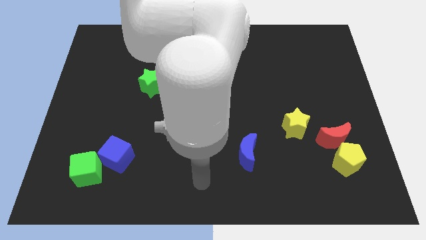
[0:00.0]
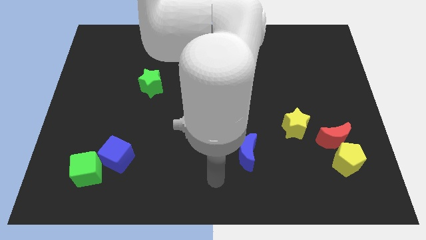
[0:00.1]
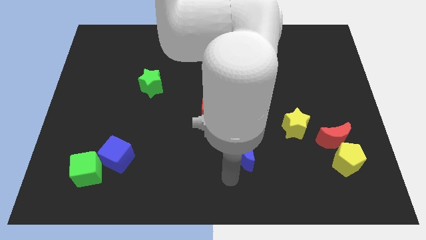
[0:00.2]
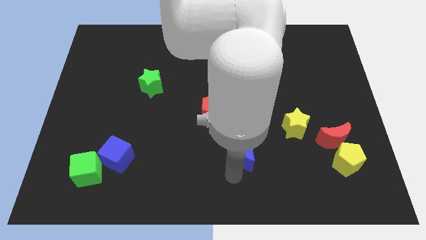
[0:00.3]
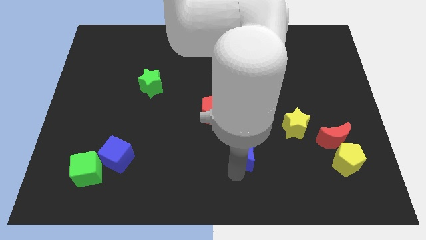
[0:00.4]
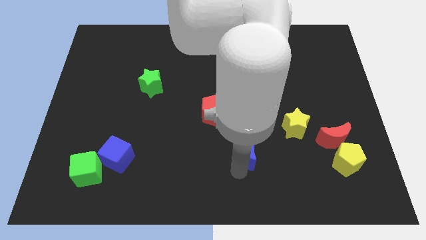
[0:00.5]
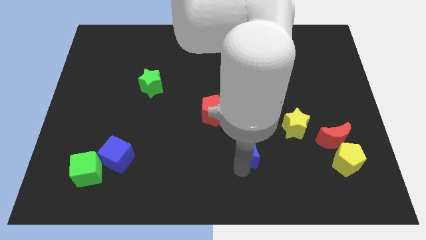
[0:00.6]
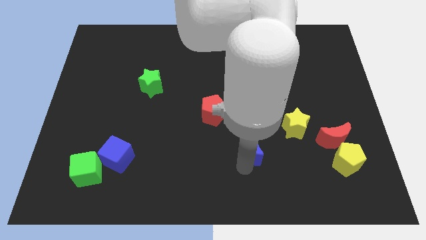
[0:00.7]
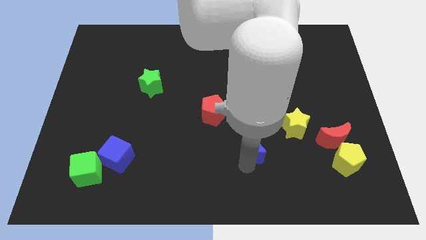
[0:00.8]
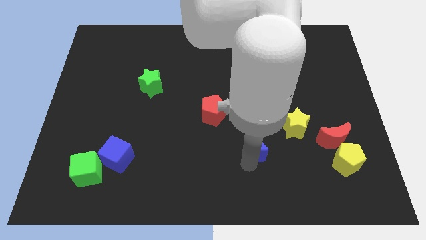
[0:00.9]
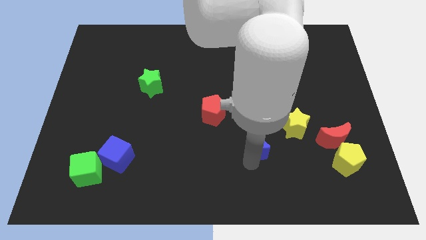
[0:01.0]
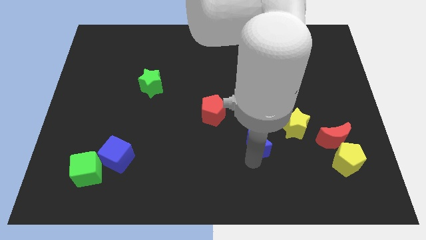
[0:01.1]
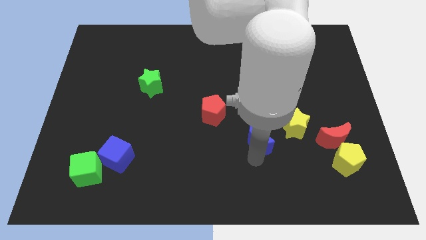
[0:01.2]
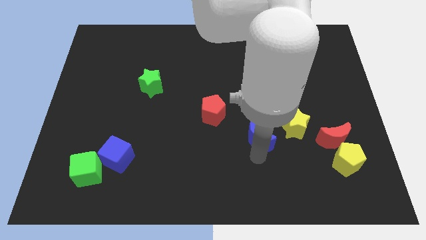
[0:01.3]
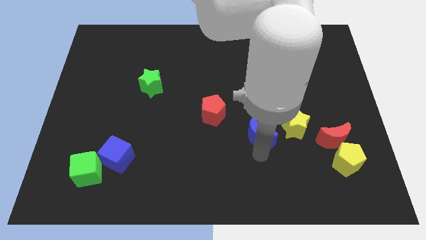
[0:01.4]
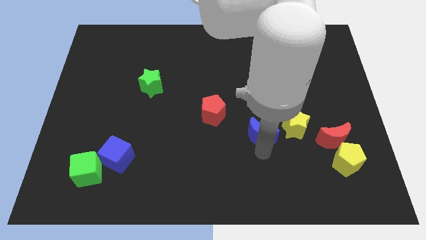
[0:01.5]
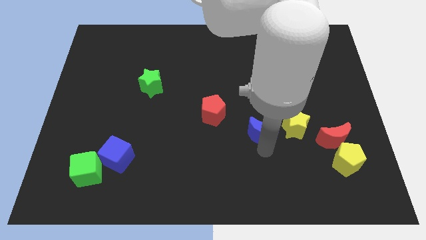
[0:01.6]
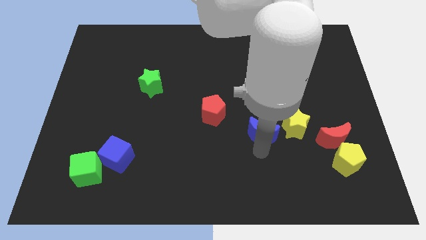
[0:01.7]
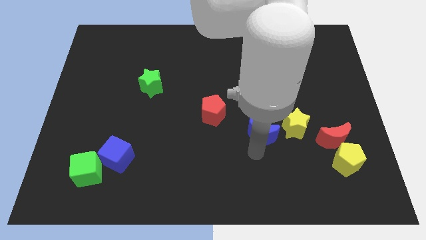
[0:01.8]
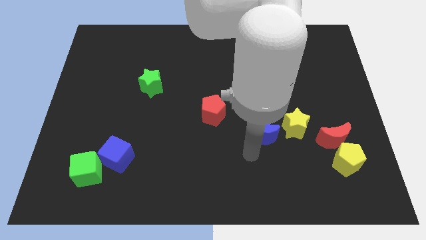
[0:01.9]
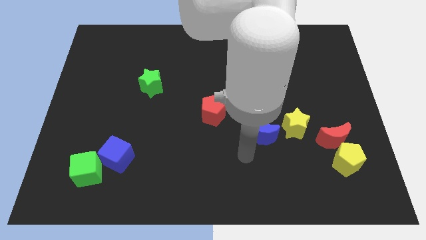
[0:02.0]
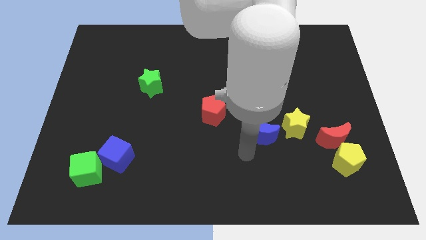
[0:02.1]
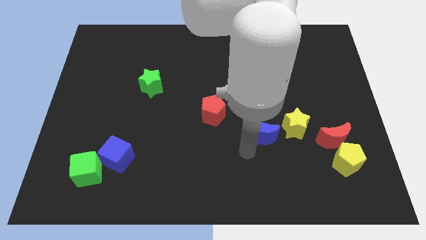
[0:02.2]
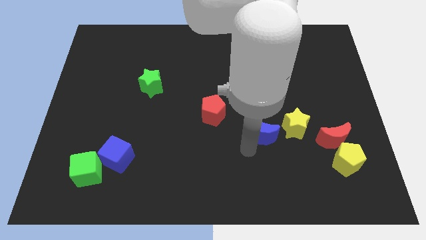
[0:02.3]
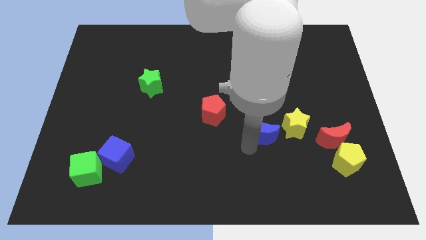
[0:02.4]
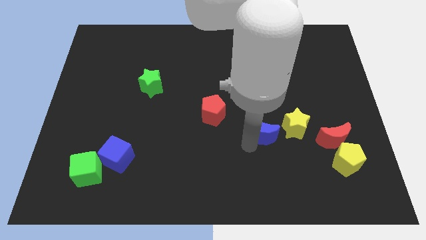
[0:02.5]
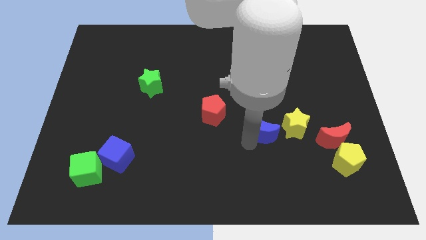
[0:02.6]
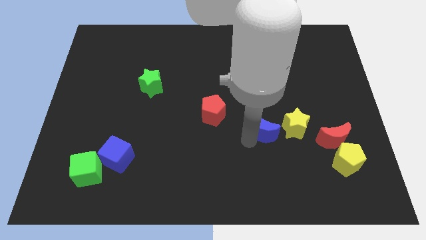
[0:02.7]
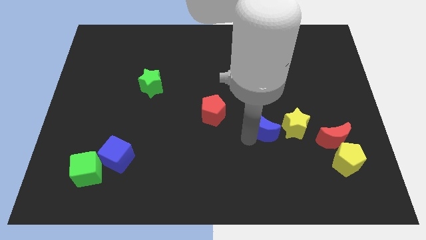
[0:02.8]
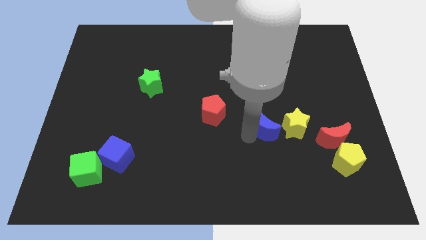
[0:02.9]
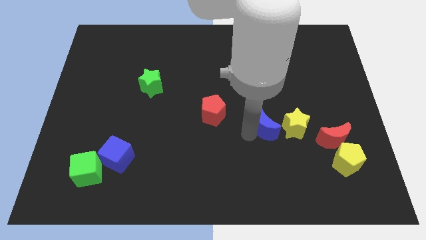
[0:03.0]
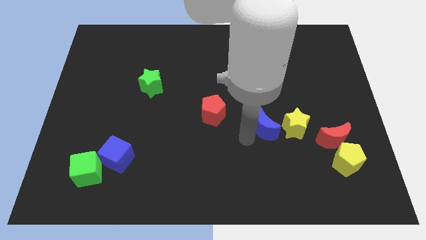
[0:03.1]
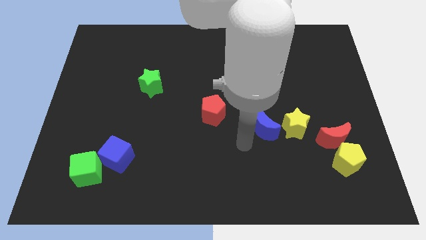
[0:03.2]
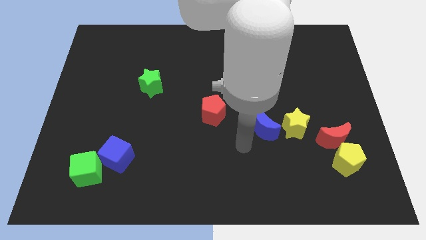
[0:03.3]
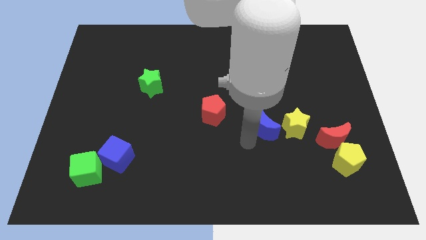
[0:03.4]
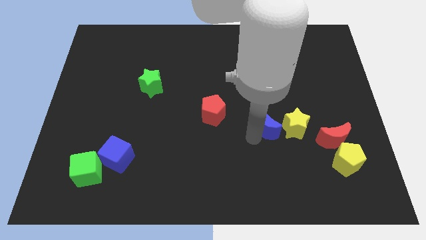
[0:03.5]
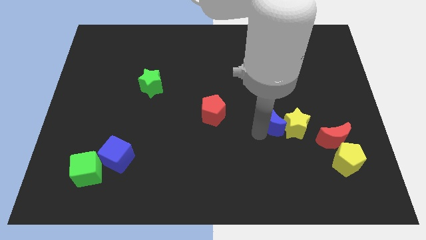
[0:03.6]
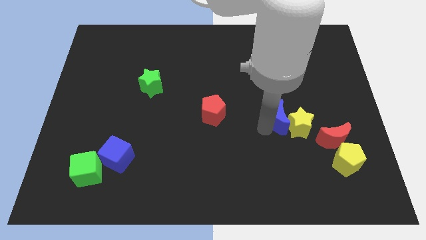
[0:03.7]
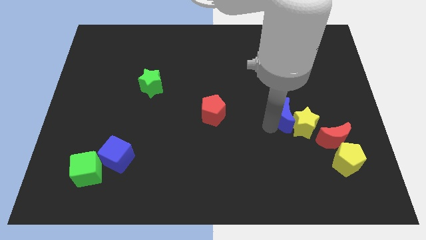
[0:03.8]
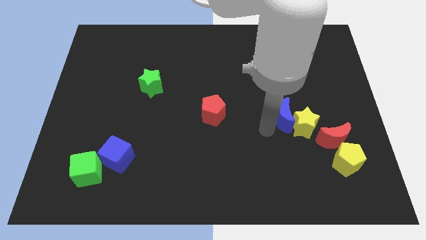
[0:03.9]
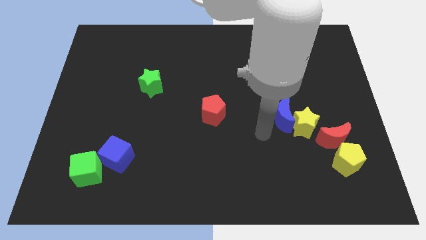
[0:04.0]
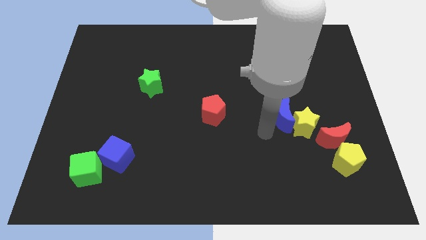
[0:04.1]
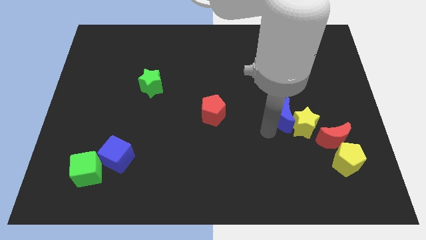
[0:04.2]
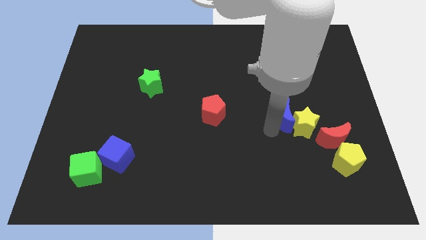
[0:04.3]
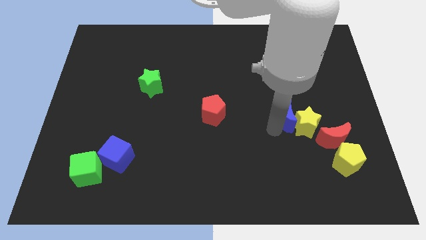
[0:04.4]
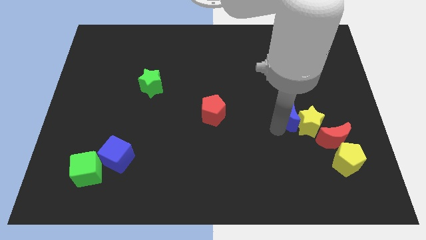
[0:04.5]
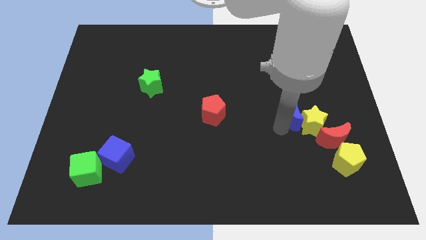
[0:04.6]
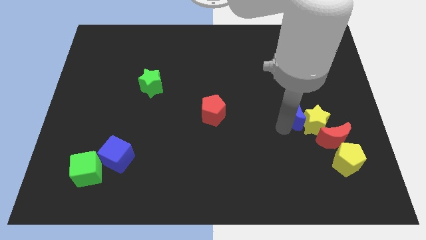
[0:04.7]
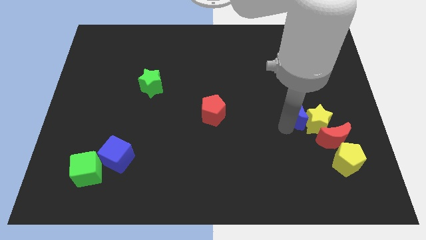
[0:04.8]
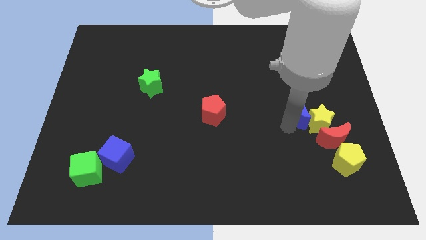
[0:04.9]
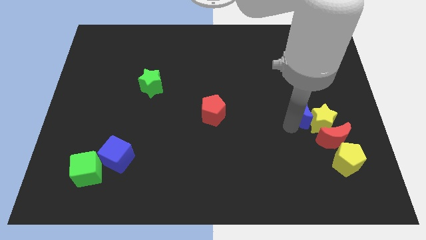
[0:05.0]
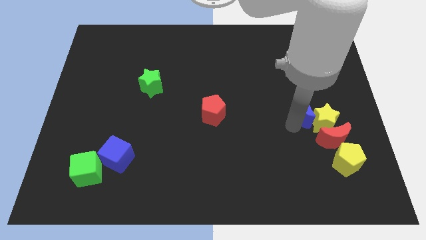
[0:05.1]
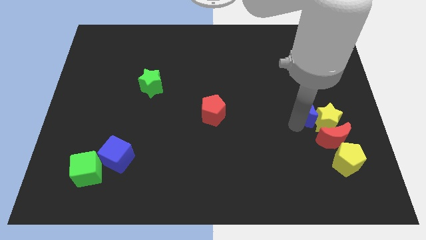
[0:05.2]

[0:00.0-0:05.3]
push the blue moon above the red moon

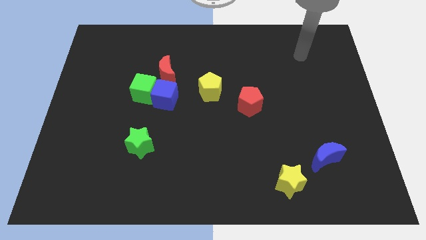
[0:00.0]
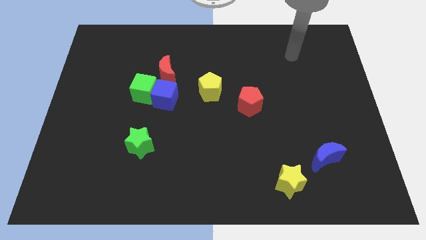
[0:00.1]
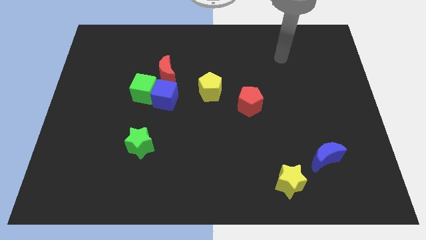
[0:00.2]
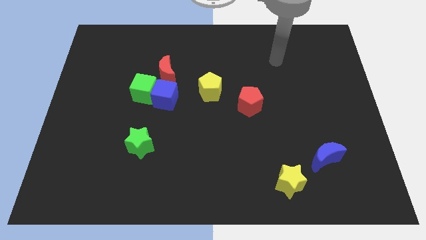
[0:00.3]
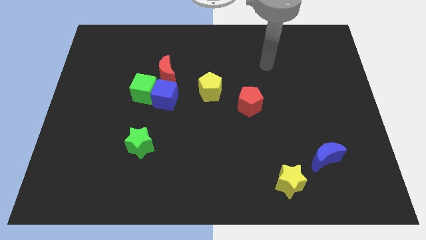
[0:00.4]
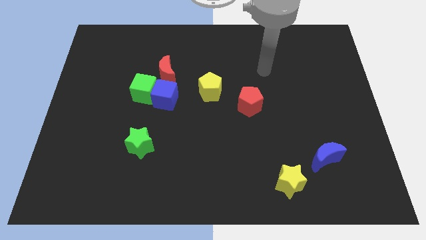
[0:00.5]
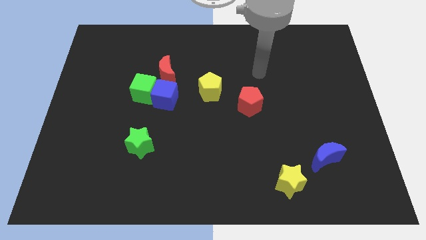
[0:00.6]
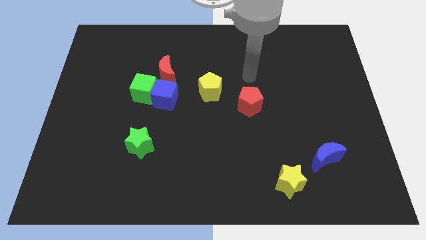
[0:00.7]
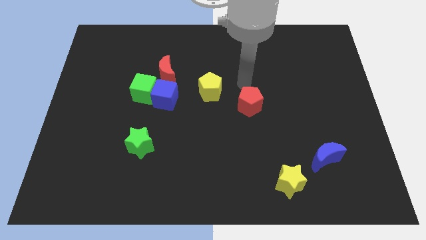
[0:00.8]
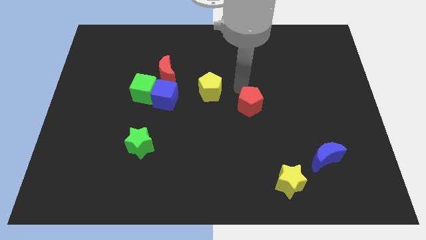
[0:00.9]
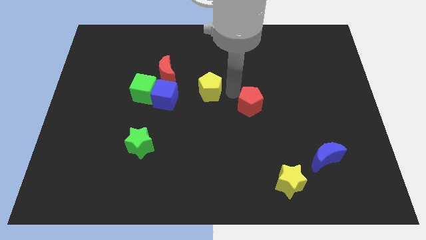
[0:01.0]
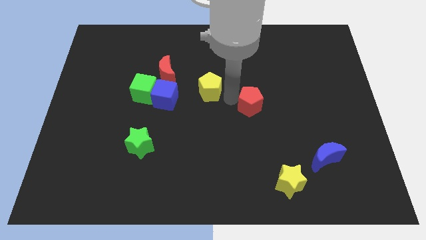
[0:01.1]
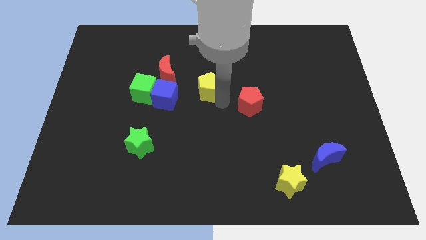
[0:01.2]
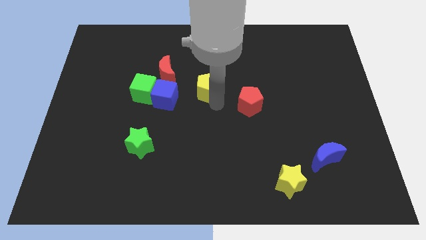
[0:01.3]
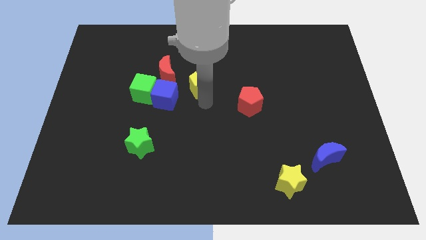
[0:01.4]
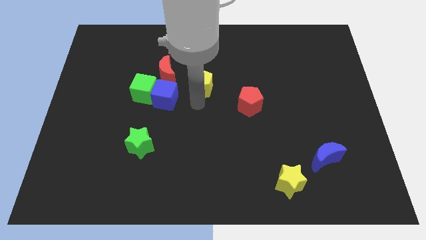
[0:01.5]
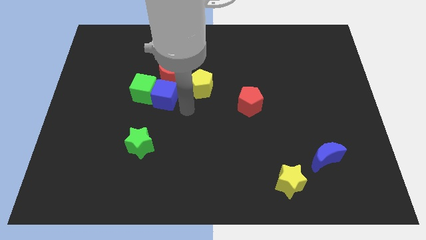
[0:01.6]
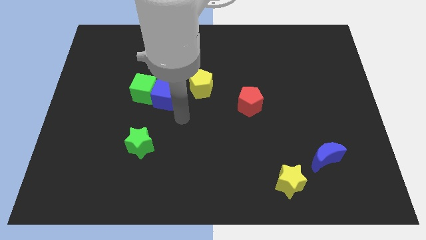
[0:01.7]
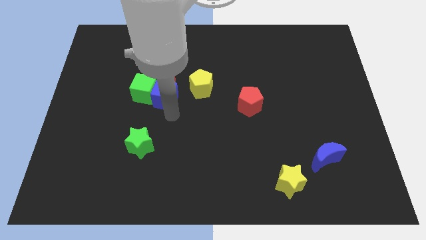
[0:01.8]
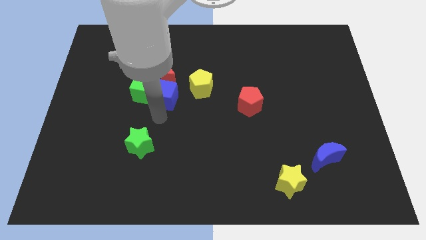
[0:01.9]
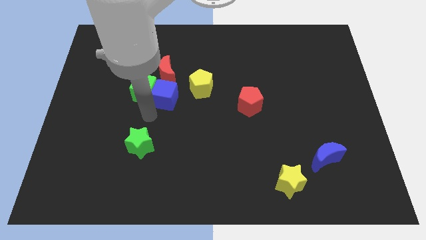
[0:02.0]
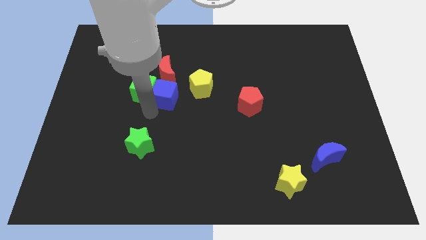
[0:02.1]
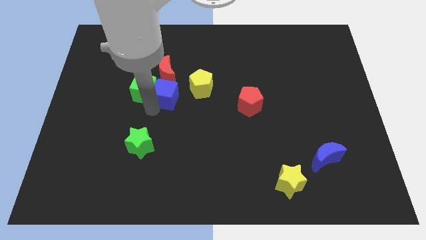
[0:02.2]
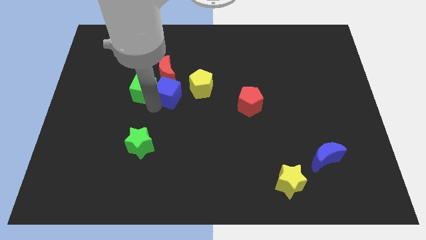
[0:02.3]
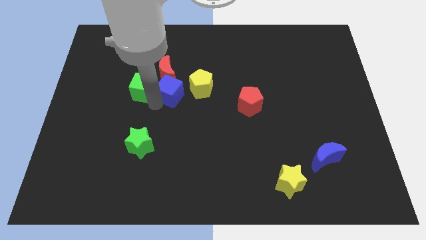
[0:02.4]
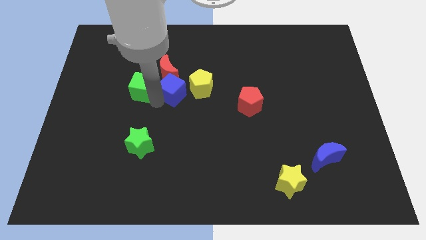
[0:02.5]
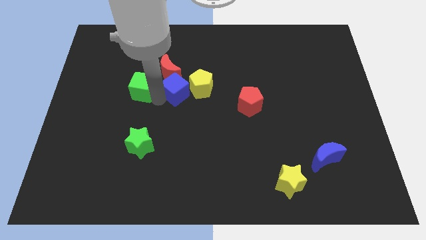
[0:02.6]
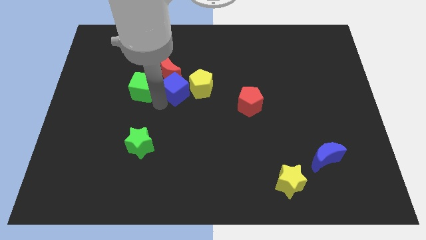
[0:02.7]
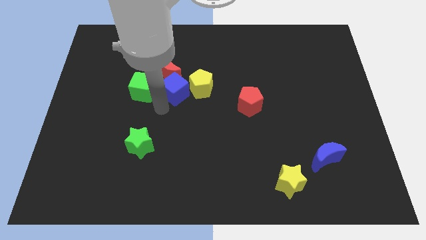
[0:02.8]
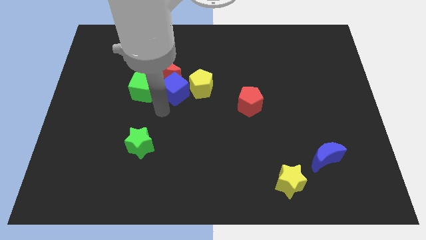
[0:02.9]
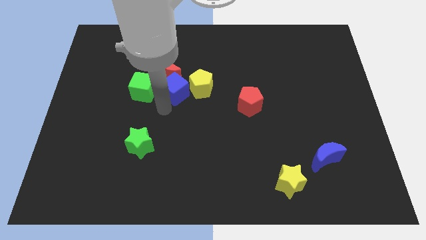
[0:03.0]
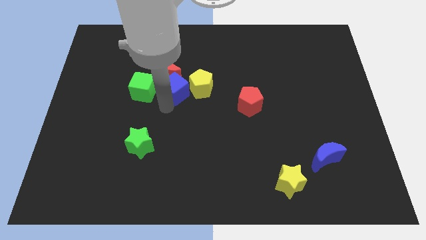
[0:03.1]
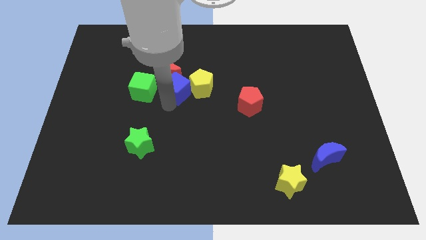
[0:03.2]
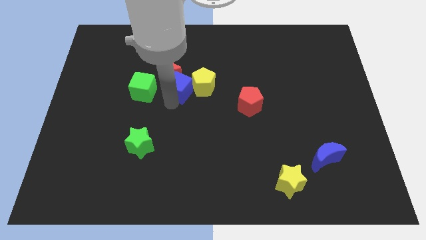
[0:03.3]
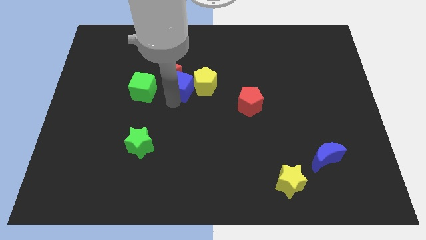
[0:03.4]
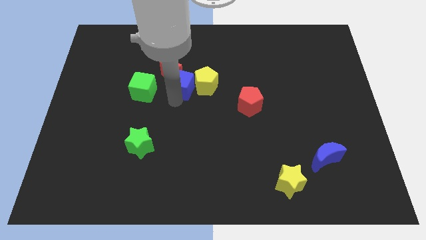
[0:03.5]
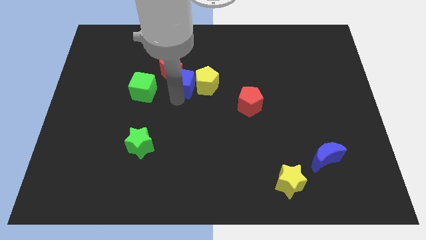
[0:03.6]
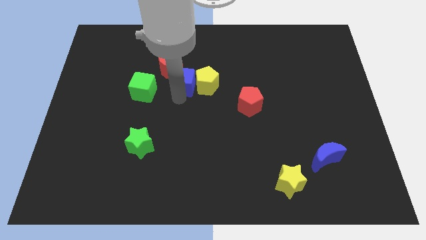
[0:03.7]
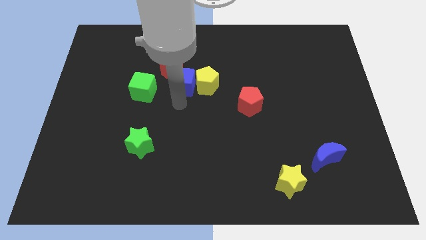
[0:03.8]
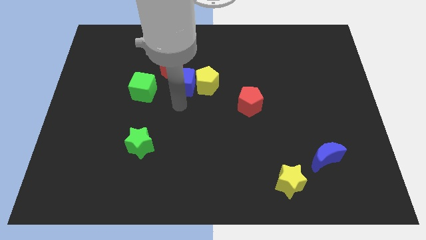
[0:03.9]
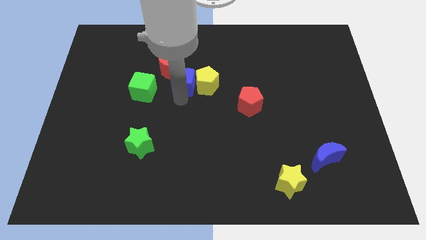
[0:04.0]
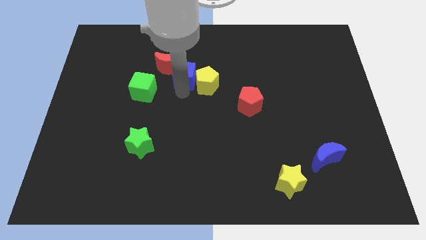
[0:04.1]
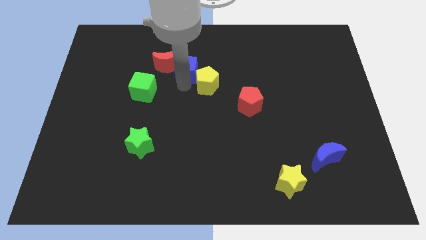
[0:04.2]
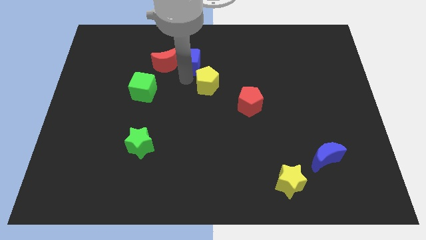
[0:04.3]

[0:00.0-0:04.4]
put the blue cube to the top right of the red moon
